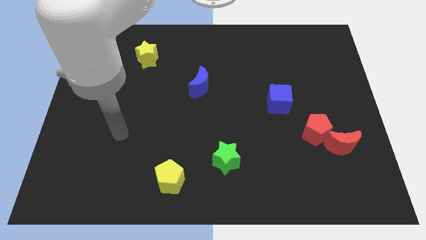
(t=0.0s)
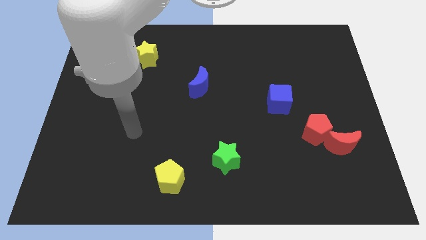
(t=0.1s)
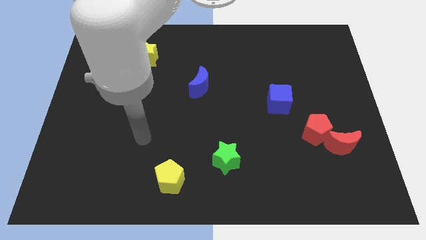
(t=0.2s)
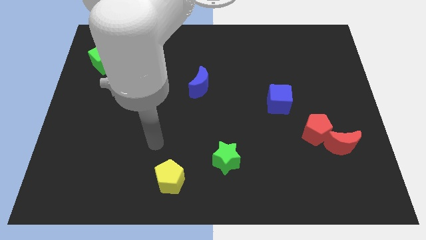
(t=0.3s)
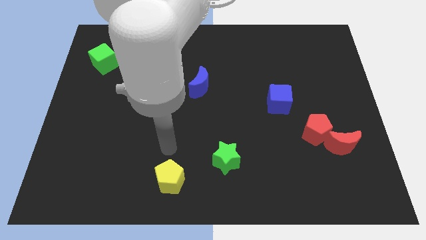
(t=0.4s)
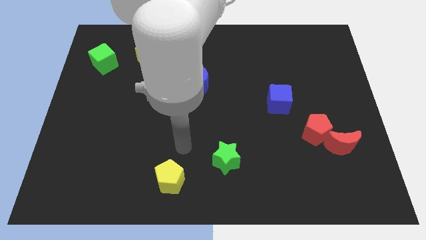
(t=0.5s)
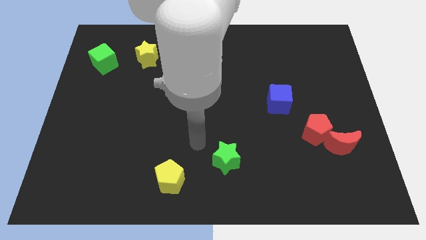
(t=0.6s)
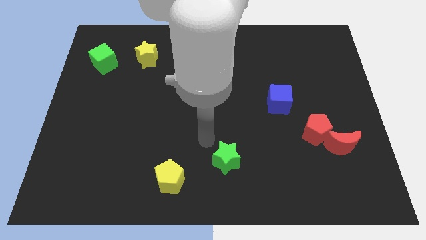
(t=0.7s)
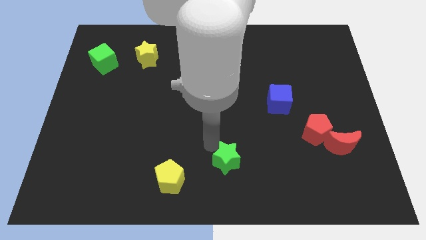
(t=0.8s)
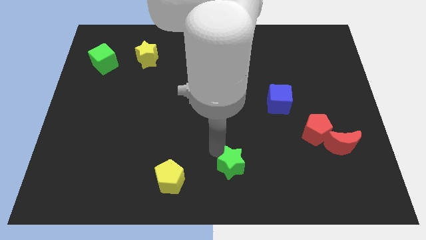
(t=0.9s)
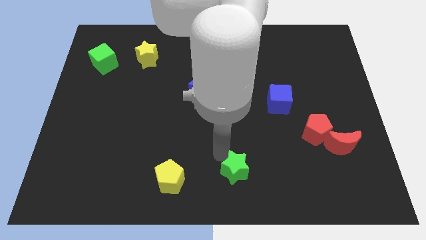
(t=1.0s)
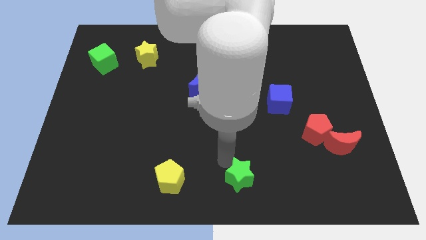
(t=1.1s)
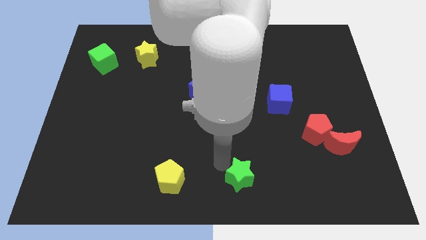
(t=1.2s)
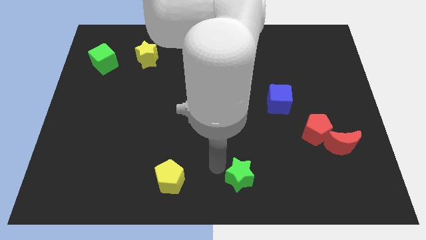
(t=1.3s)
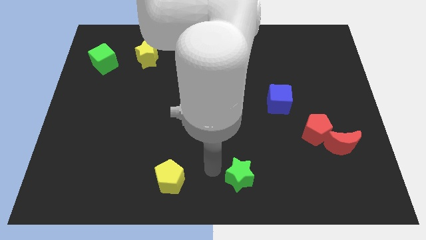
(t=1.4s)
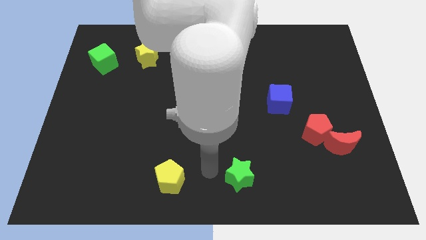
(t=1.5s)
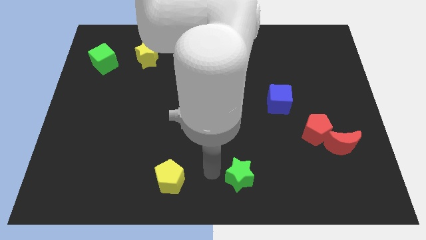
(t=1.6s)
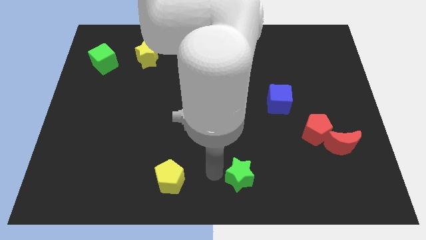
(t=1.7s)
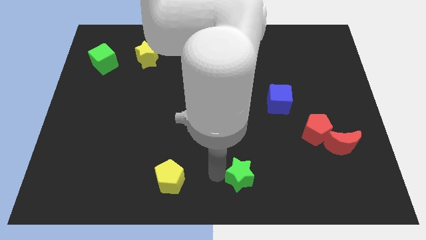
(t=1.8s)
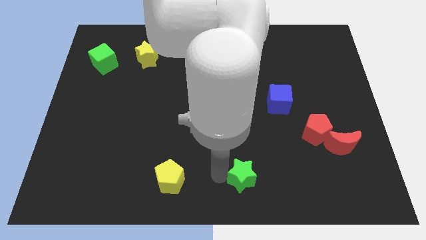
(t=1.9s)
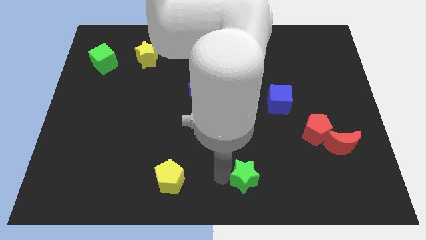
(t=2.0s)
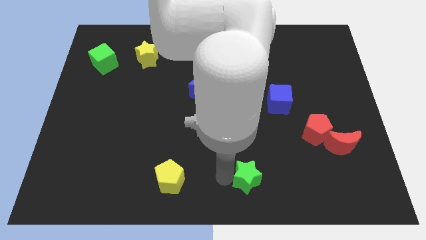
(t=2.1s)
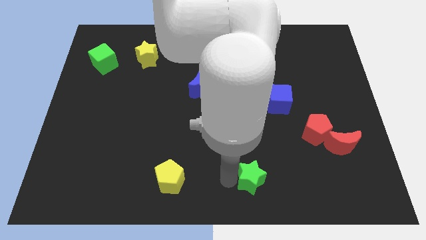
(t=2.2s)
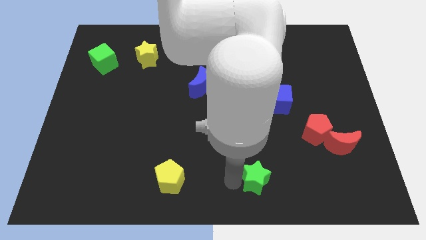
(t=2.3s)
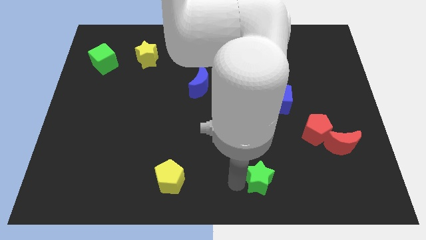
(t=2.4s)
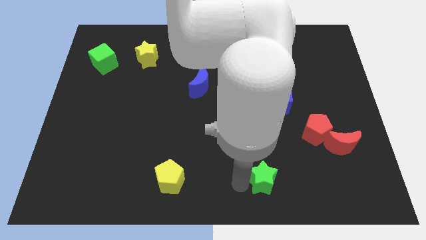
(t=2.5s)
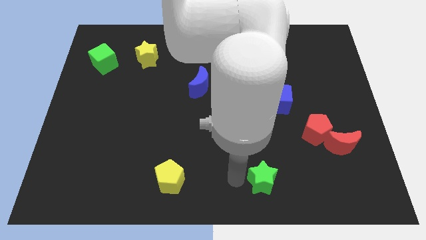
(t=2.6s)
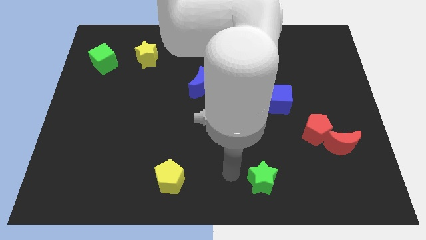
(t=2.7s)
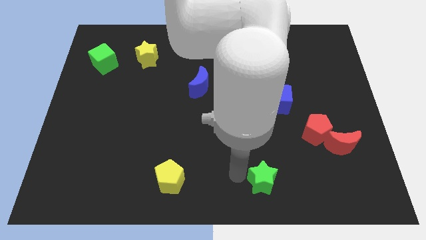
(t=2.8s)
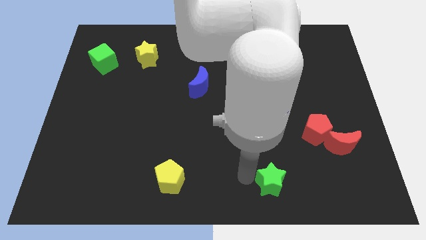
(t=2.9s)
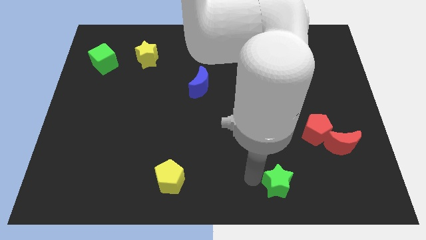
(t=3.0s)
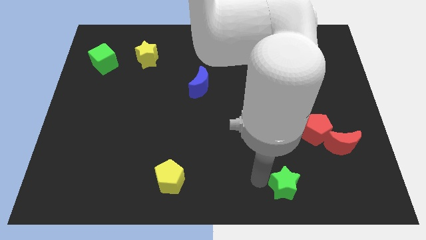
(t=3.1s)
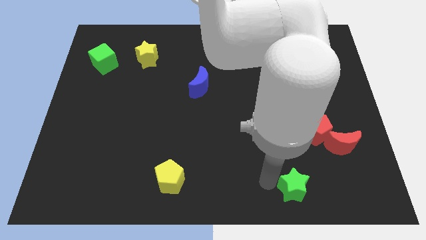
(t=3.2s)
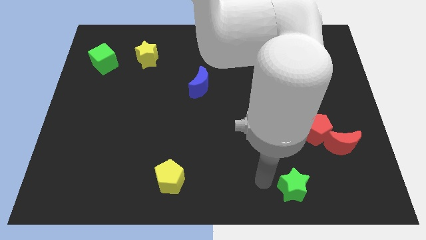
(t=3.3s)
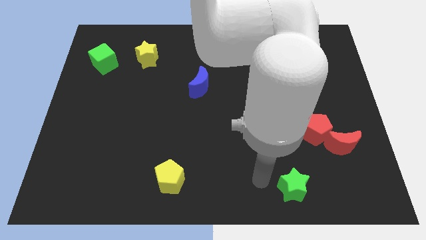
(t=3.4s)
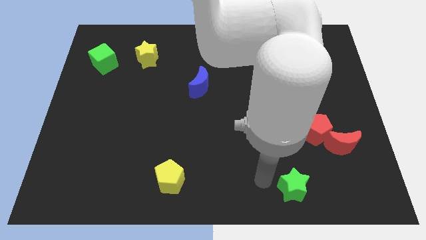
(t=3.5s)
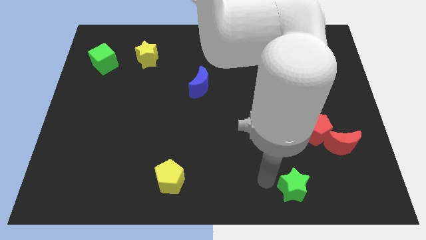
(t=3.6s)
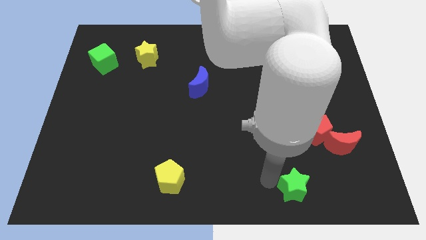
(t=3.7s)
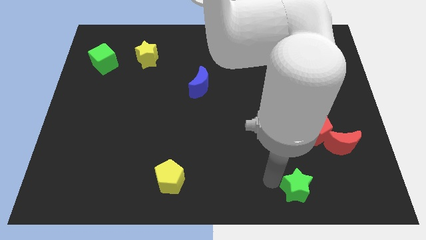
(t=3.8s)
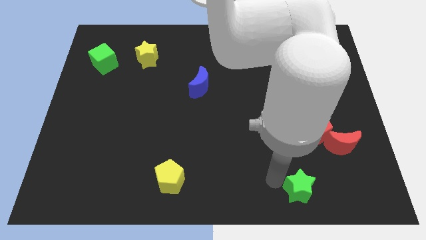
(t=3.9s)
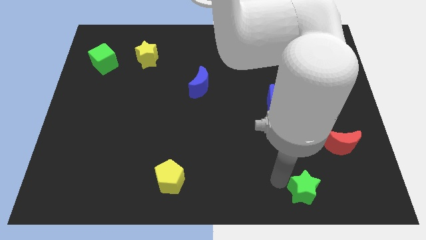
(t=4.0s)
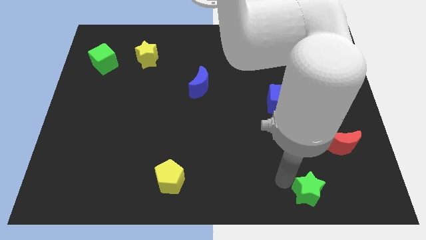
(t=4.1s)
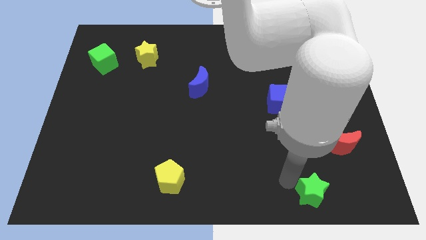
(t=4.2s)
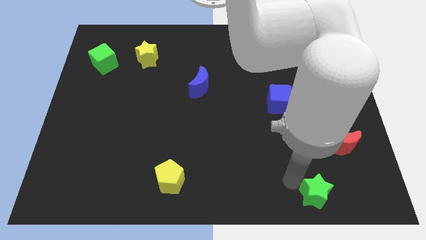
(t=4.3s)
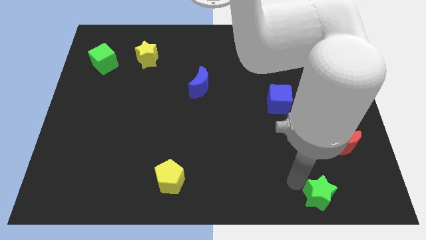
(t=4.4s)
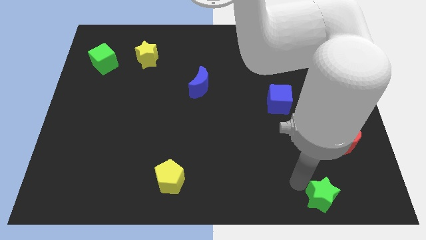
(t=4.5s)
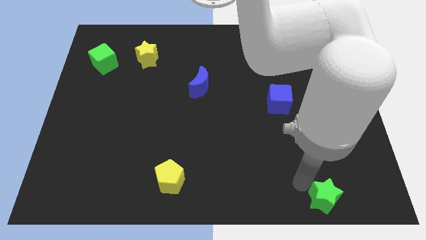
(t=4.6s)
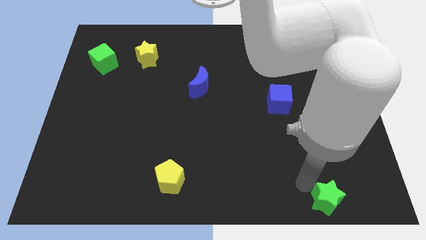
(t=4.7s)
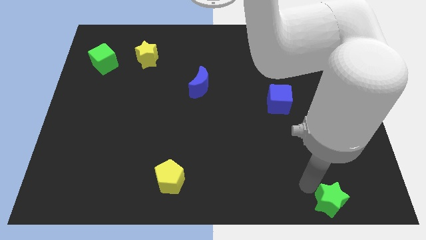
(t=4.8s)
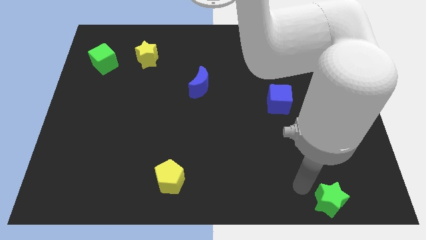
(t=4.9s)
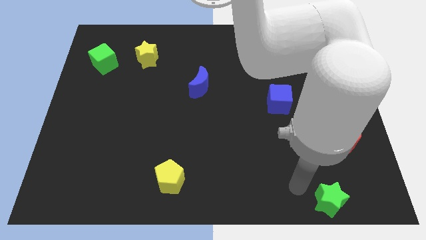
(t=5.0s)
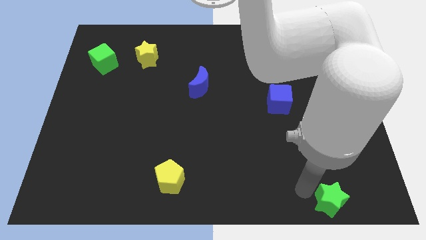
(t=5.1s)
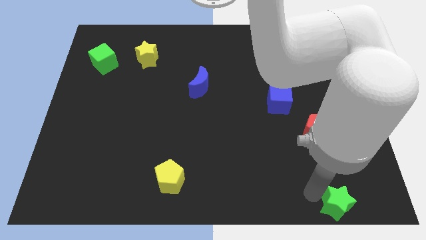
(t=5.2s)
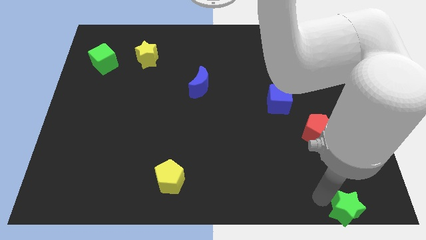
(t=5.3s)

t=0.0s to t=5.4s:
move the green star to the lower right corner

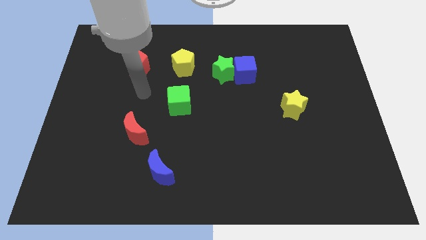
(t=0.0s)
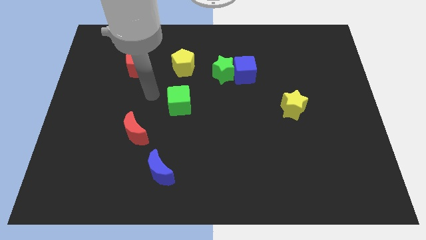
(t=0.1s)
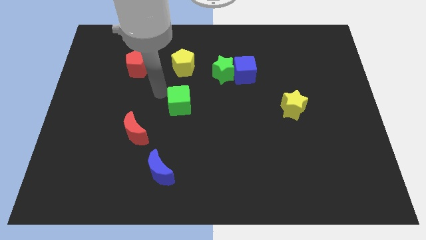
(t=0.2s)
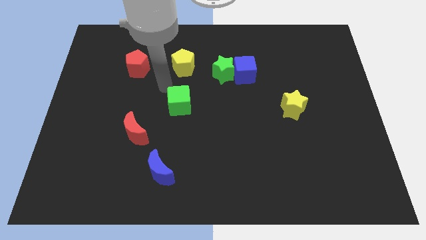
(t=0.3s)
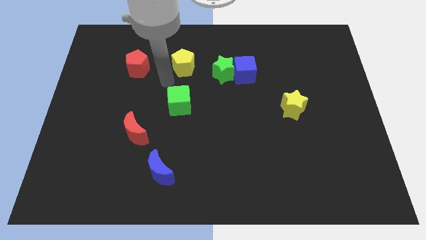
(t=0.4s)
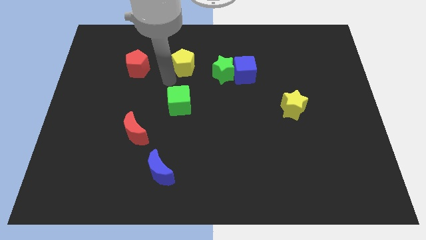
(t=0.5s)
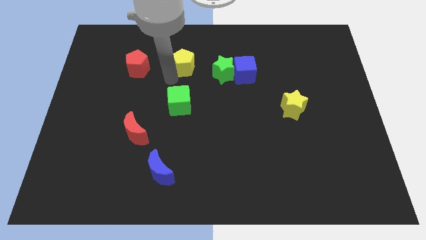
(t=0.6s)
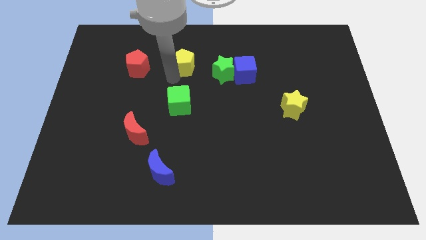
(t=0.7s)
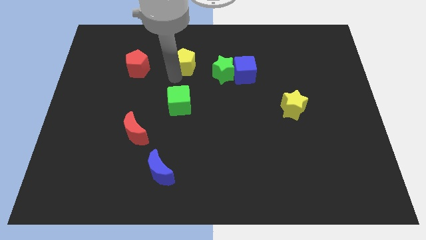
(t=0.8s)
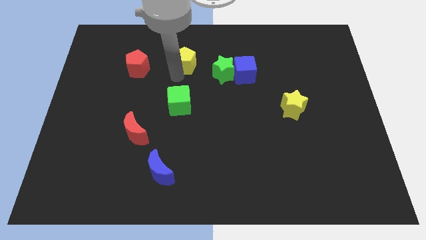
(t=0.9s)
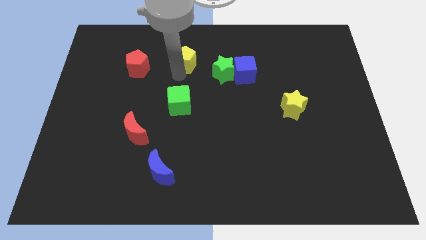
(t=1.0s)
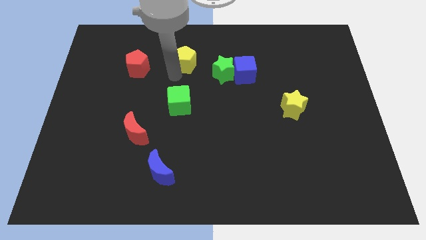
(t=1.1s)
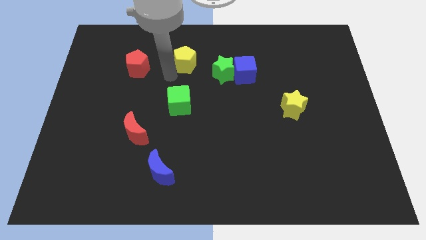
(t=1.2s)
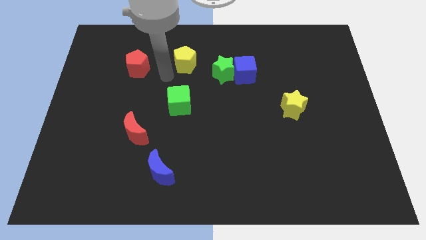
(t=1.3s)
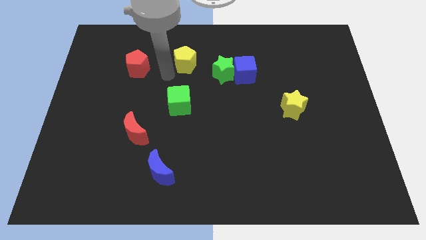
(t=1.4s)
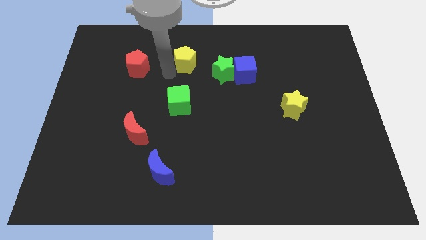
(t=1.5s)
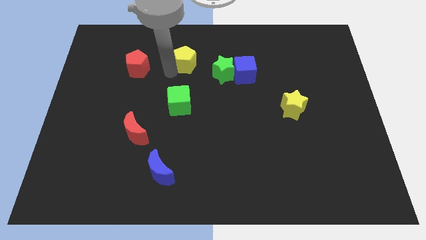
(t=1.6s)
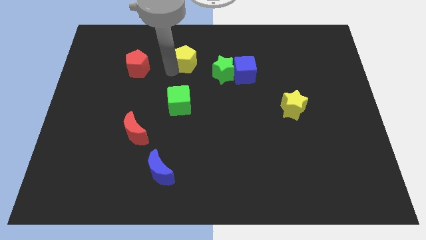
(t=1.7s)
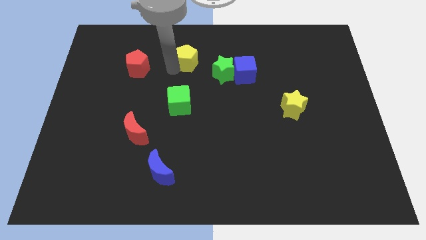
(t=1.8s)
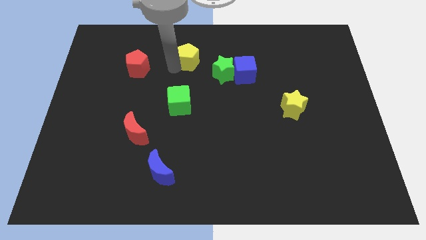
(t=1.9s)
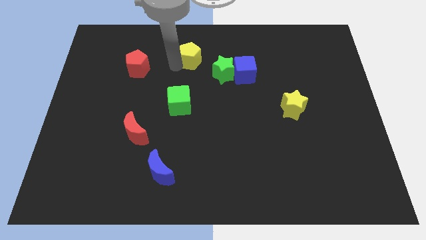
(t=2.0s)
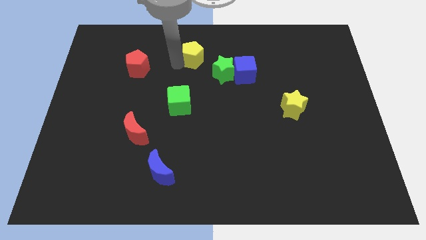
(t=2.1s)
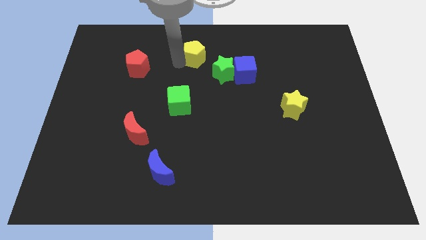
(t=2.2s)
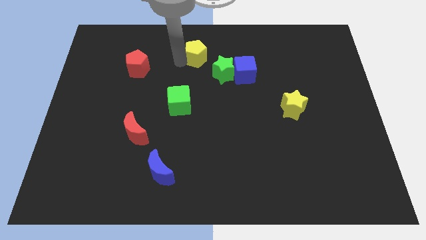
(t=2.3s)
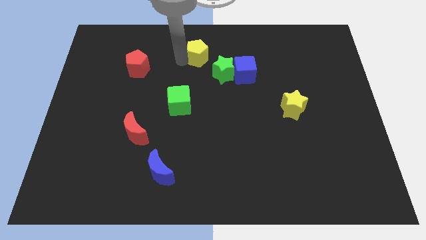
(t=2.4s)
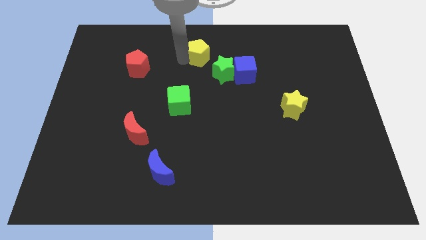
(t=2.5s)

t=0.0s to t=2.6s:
move the yellow pentagon to the towards your base

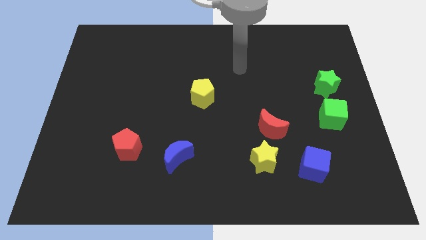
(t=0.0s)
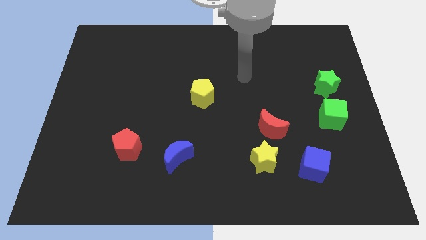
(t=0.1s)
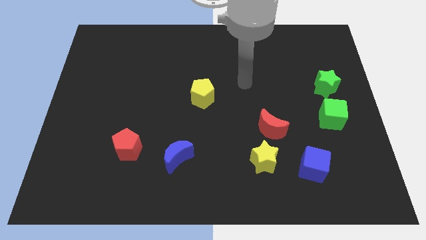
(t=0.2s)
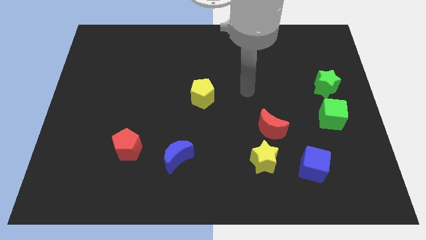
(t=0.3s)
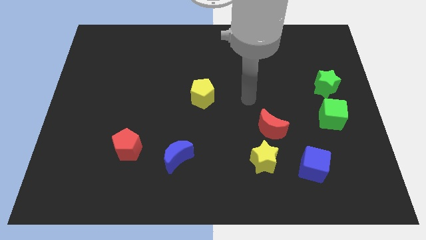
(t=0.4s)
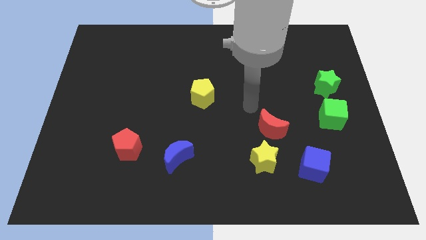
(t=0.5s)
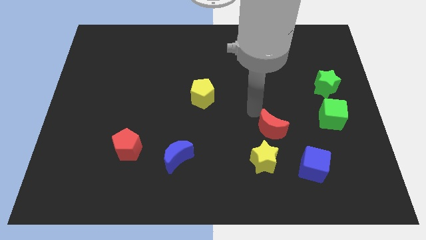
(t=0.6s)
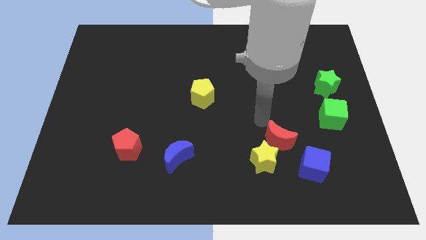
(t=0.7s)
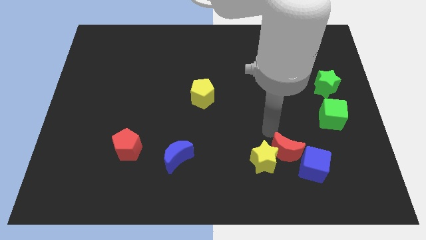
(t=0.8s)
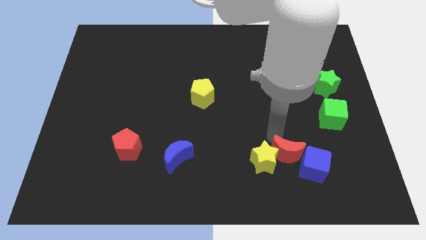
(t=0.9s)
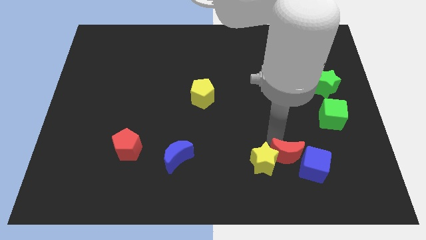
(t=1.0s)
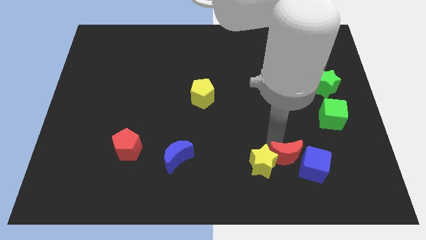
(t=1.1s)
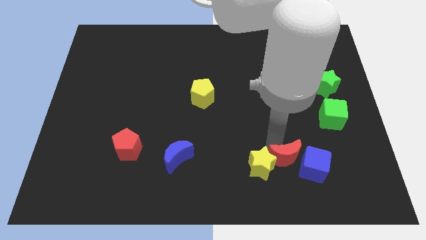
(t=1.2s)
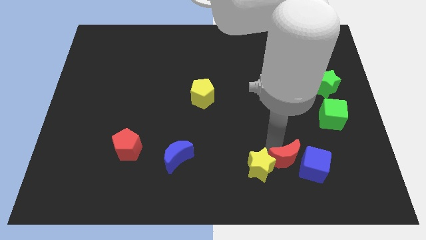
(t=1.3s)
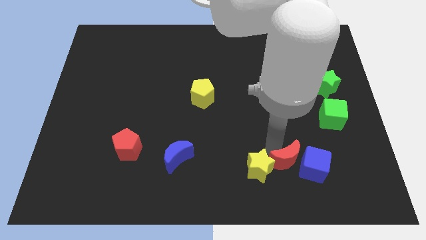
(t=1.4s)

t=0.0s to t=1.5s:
put the yellow star to the bottom
